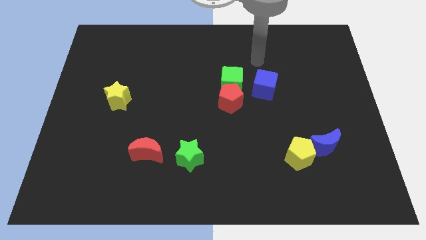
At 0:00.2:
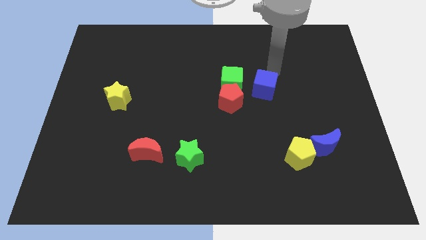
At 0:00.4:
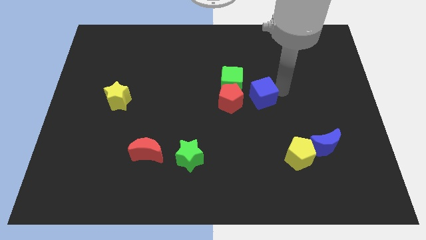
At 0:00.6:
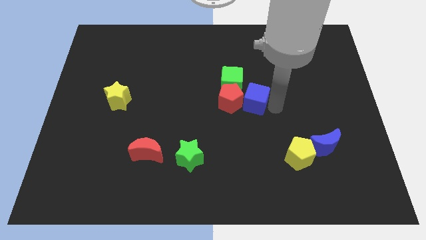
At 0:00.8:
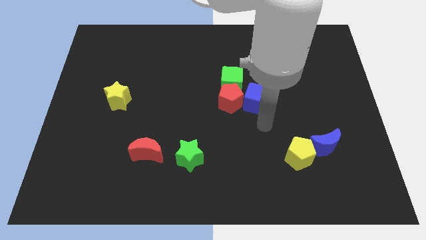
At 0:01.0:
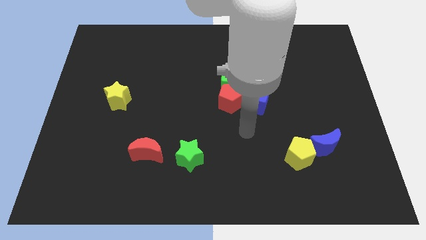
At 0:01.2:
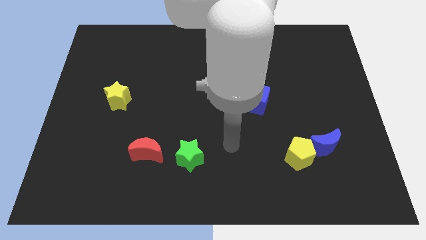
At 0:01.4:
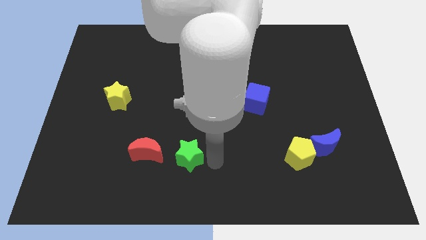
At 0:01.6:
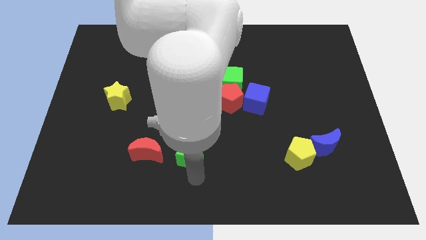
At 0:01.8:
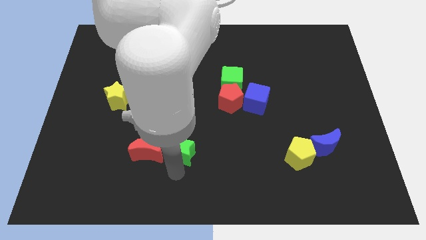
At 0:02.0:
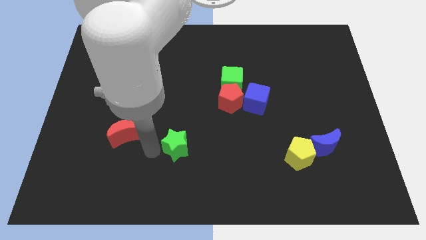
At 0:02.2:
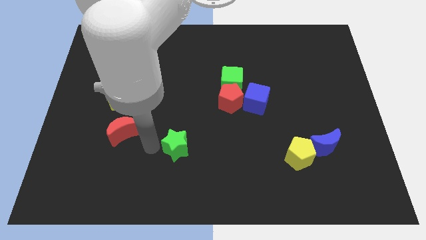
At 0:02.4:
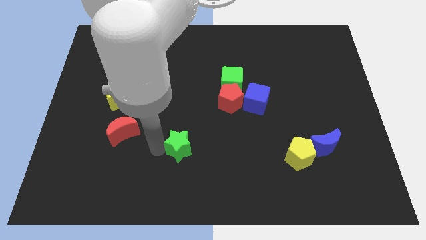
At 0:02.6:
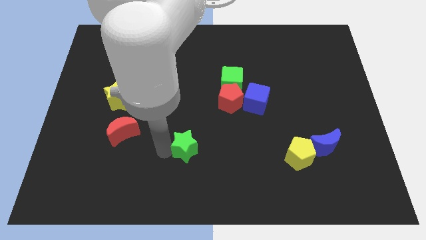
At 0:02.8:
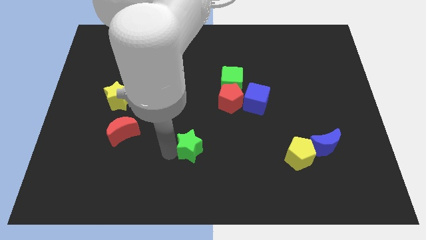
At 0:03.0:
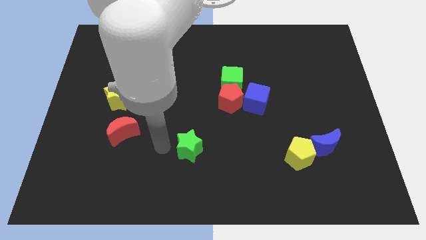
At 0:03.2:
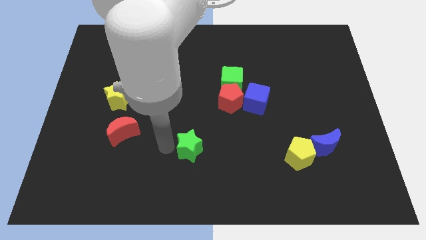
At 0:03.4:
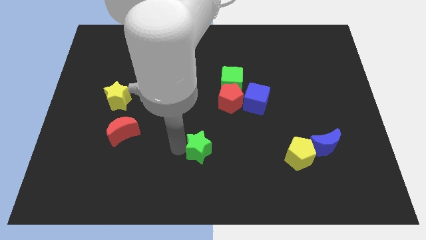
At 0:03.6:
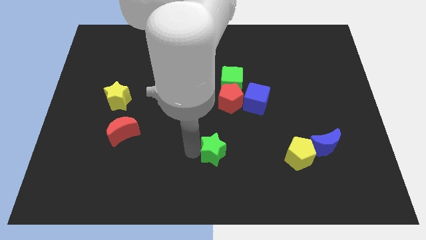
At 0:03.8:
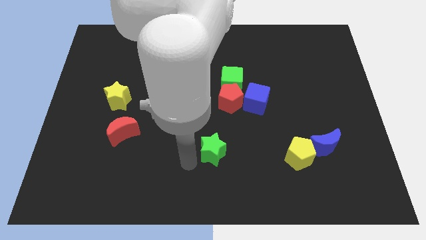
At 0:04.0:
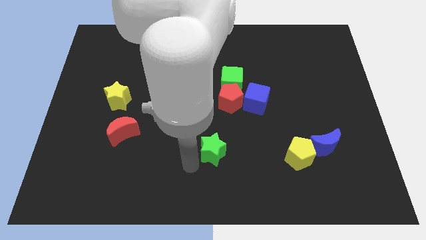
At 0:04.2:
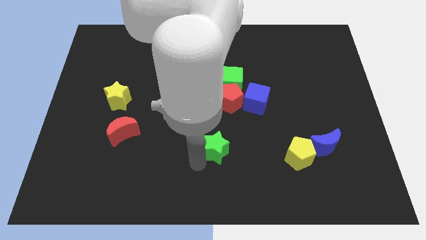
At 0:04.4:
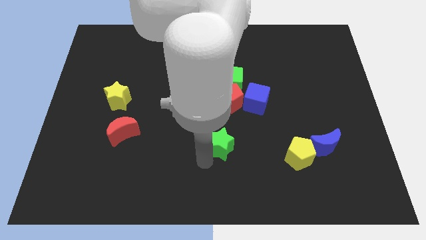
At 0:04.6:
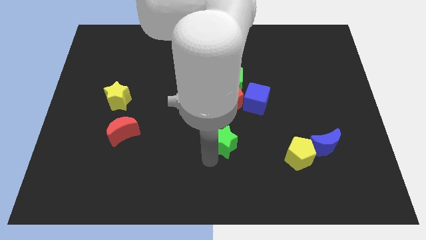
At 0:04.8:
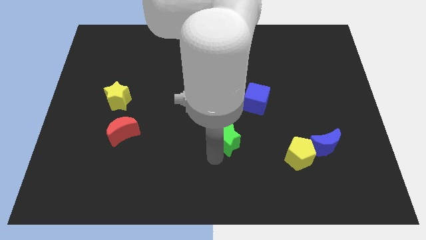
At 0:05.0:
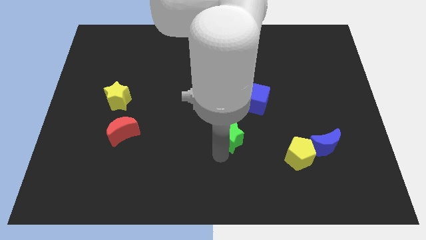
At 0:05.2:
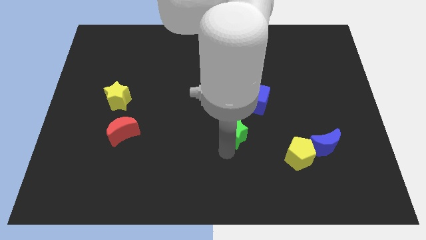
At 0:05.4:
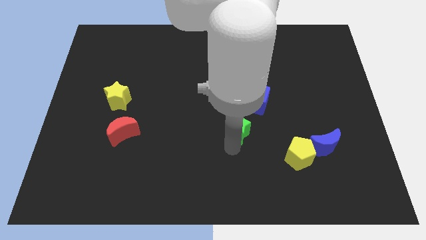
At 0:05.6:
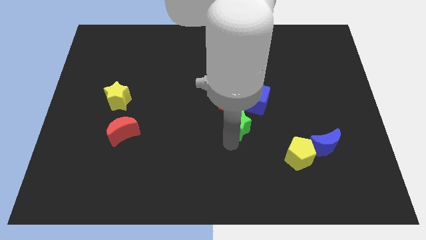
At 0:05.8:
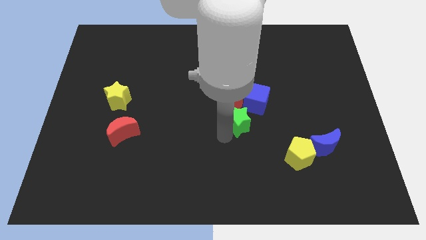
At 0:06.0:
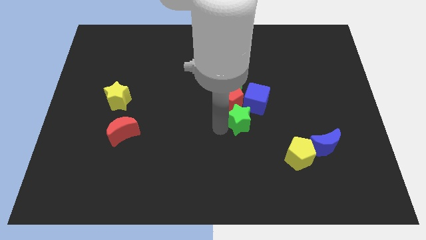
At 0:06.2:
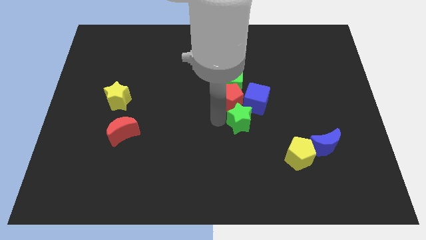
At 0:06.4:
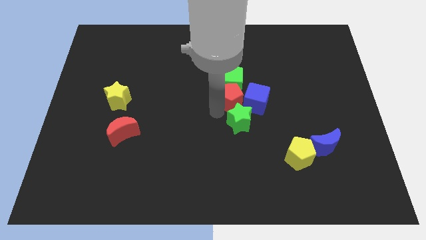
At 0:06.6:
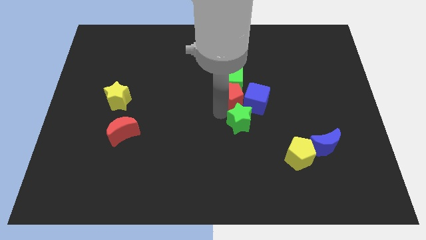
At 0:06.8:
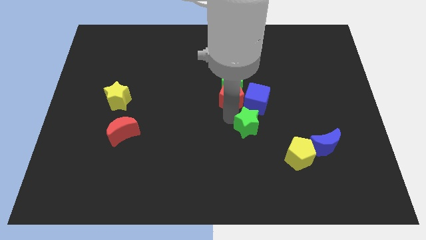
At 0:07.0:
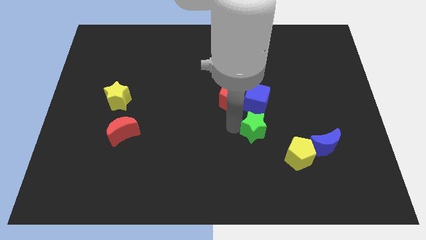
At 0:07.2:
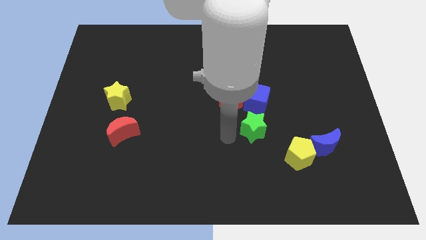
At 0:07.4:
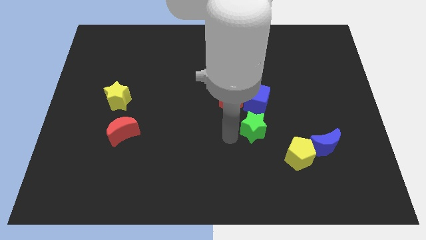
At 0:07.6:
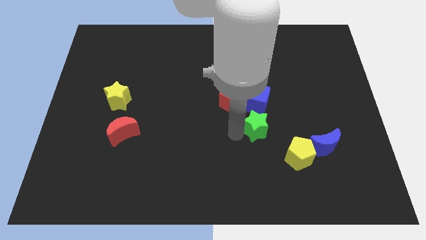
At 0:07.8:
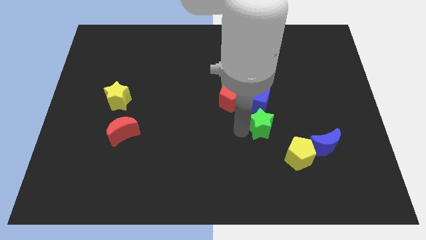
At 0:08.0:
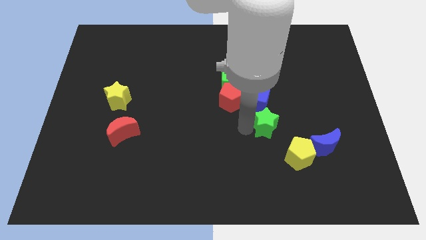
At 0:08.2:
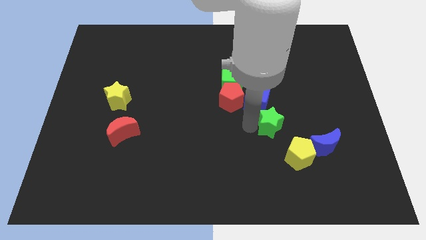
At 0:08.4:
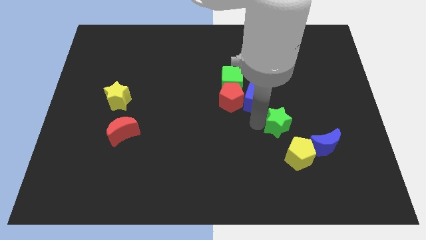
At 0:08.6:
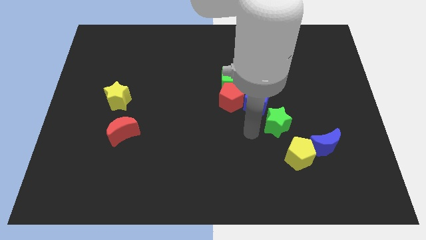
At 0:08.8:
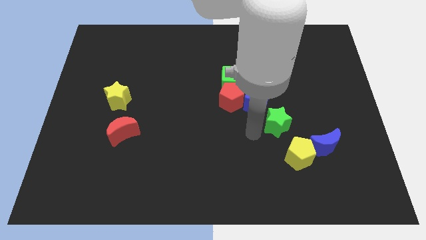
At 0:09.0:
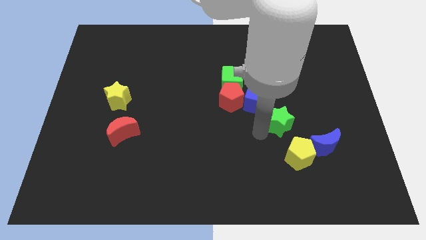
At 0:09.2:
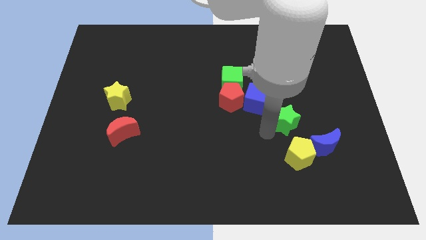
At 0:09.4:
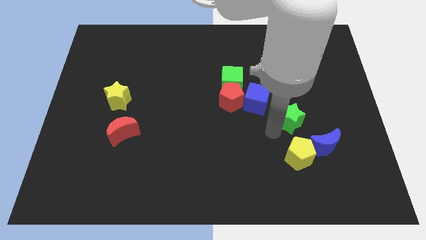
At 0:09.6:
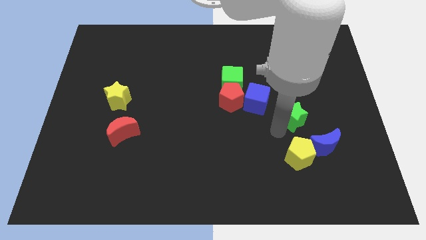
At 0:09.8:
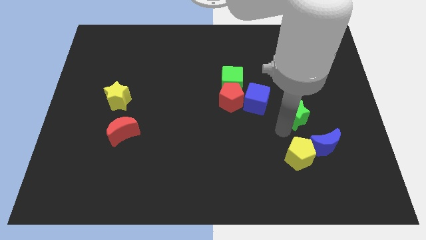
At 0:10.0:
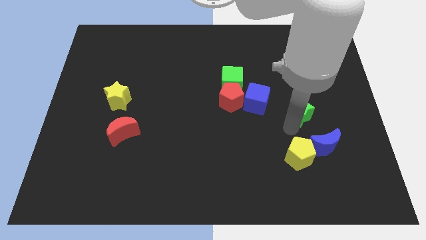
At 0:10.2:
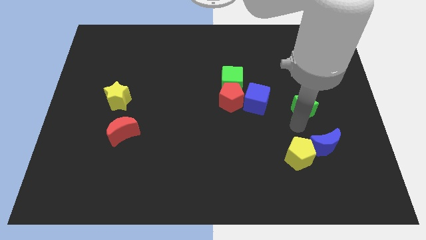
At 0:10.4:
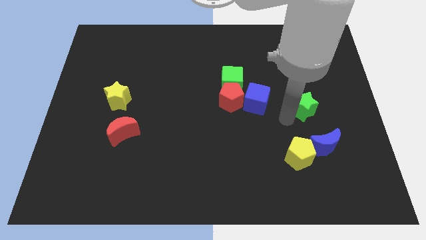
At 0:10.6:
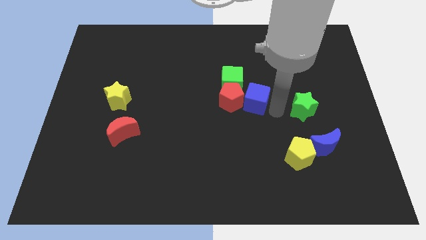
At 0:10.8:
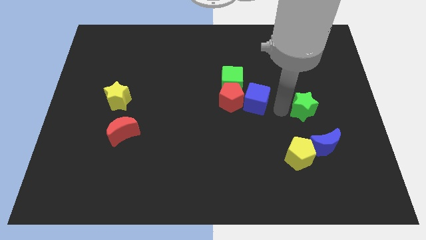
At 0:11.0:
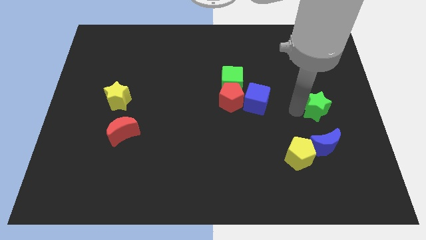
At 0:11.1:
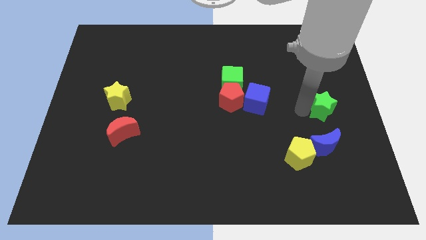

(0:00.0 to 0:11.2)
slide the green star to the right side

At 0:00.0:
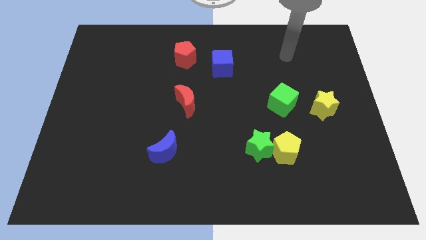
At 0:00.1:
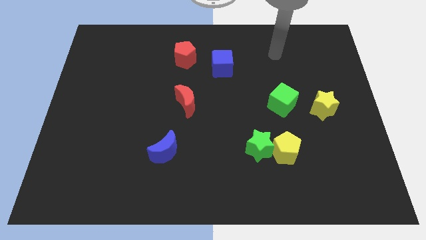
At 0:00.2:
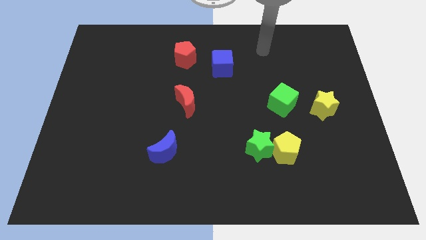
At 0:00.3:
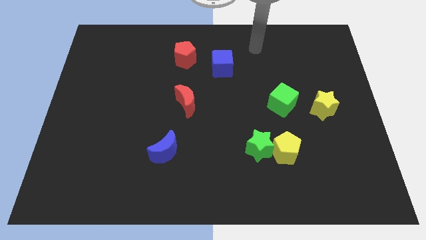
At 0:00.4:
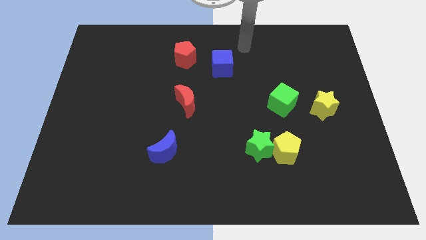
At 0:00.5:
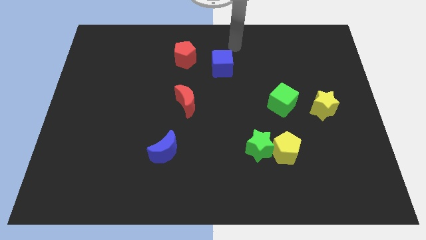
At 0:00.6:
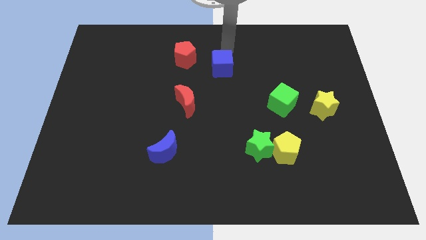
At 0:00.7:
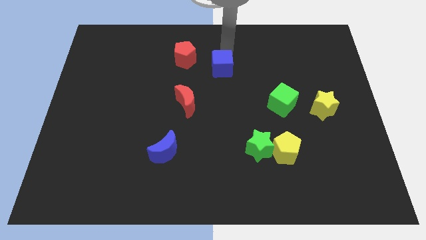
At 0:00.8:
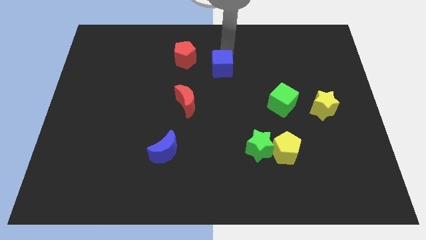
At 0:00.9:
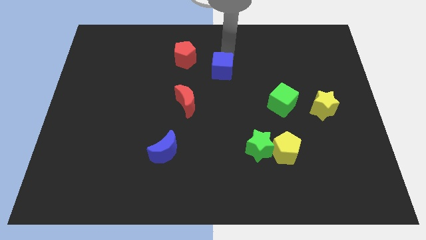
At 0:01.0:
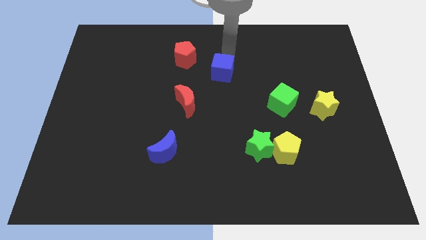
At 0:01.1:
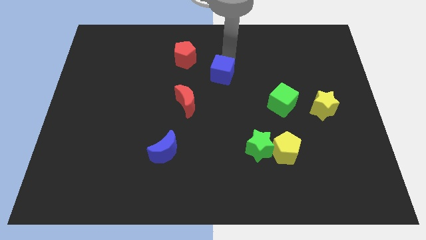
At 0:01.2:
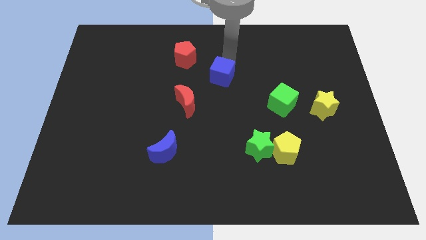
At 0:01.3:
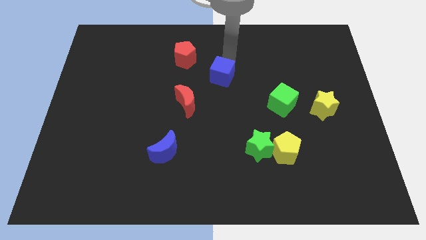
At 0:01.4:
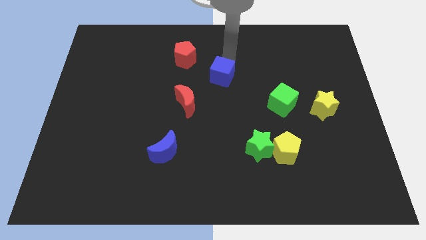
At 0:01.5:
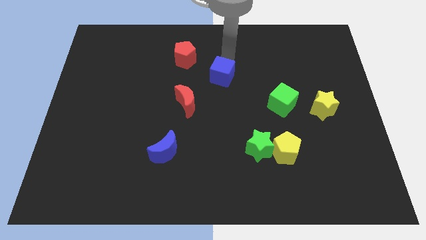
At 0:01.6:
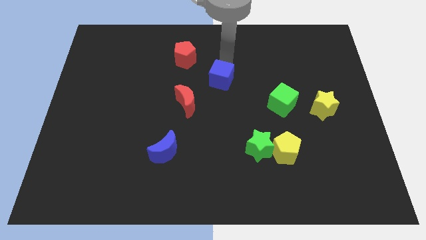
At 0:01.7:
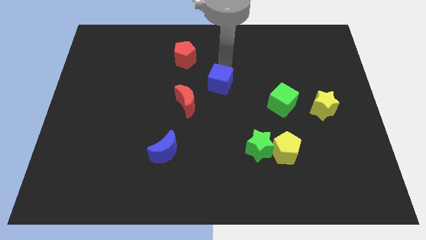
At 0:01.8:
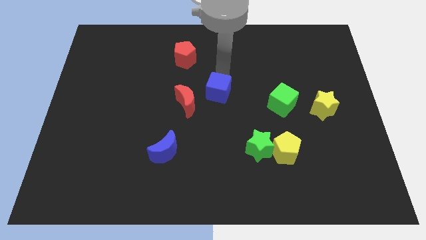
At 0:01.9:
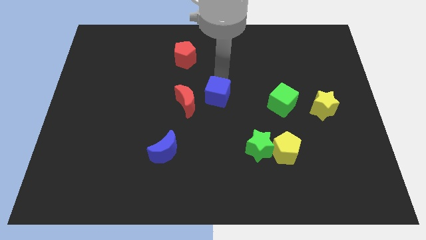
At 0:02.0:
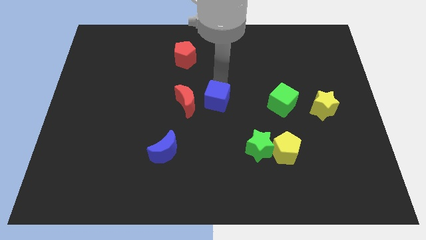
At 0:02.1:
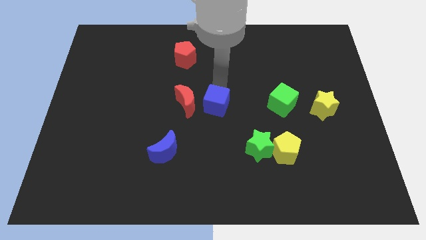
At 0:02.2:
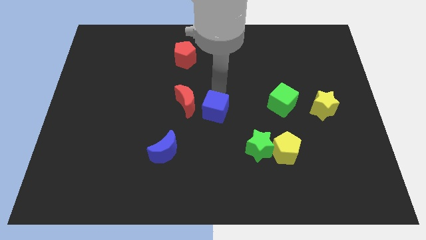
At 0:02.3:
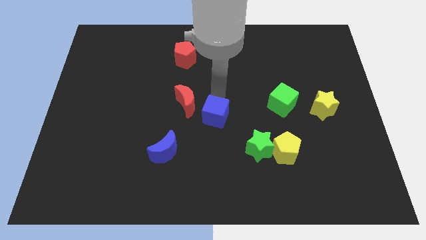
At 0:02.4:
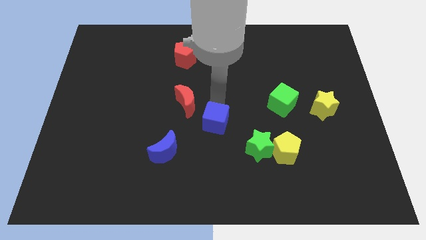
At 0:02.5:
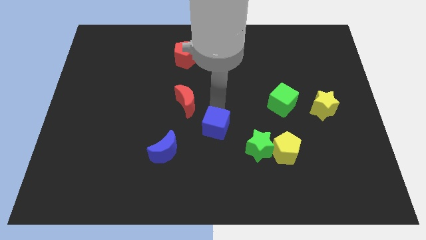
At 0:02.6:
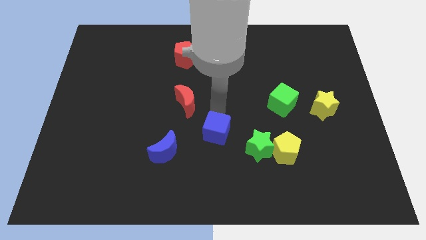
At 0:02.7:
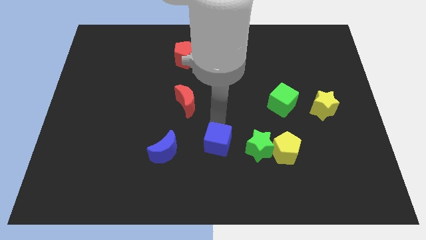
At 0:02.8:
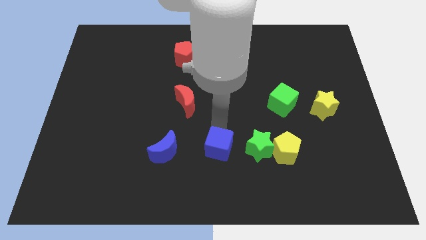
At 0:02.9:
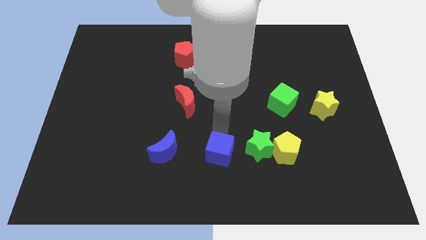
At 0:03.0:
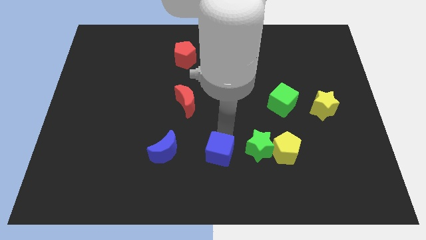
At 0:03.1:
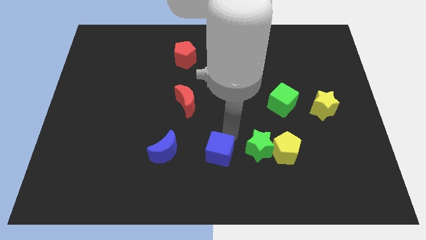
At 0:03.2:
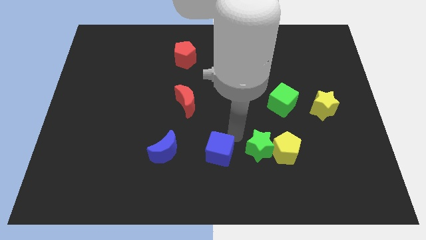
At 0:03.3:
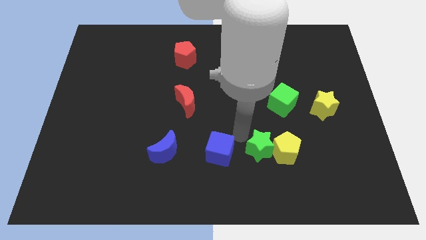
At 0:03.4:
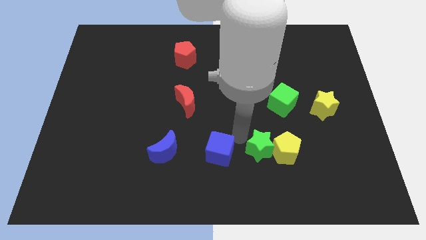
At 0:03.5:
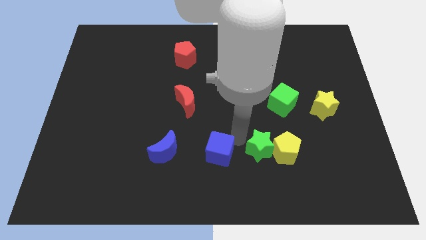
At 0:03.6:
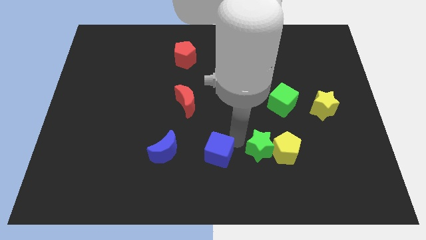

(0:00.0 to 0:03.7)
move the blue cube to the bottom
